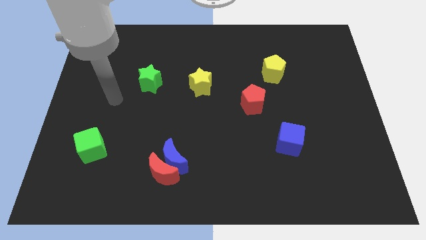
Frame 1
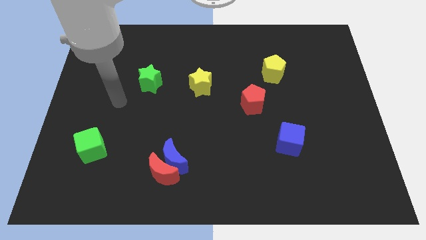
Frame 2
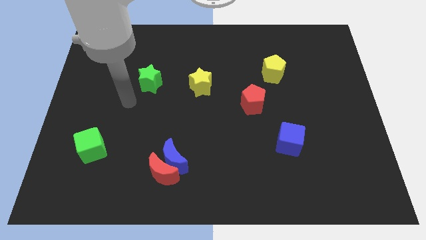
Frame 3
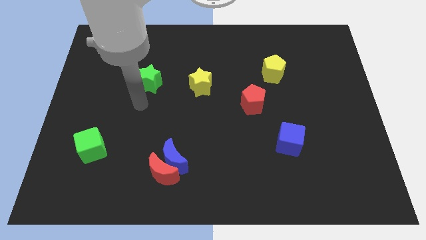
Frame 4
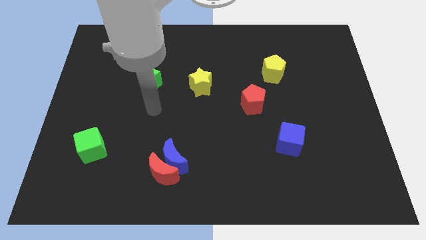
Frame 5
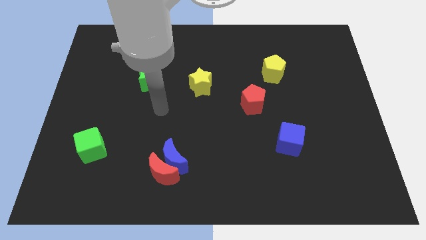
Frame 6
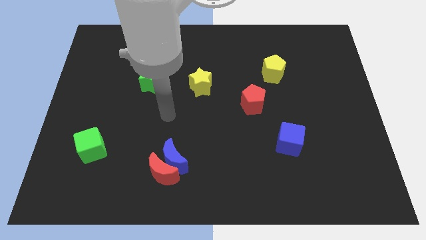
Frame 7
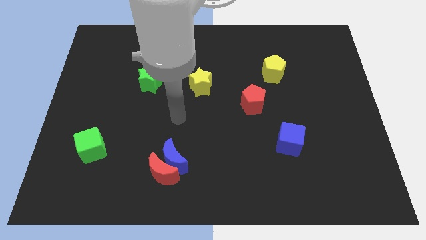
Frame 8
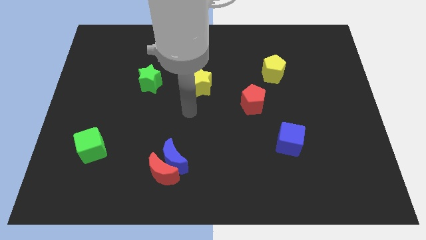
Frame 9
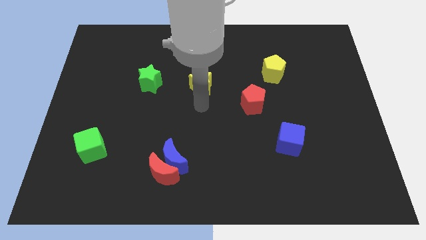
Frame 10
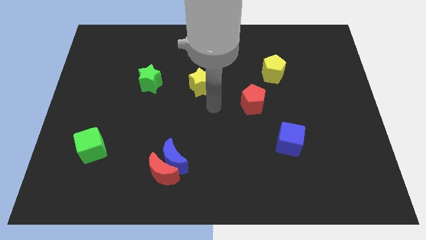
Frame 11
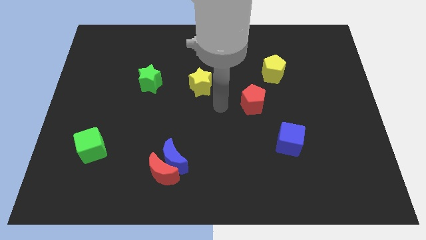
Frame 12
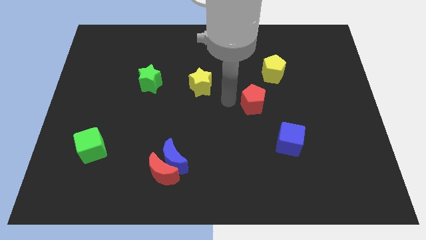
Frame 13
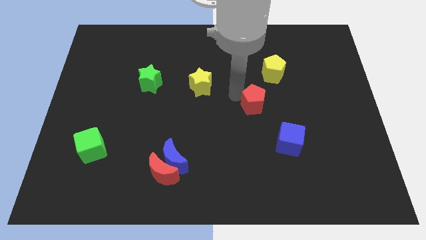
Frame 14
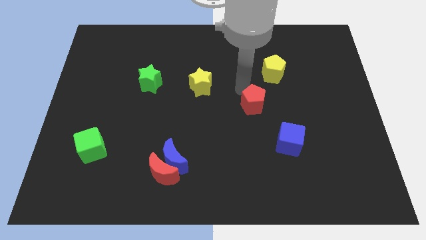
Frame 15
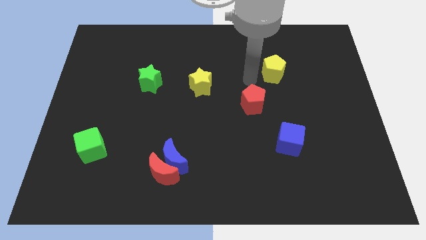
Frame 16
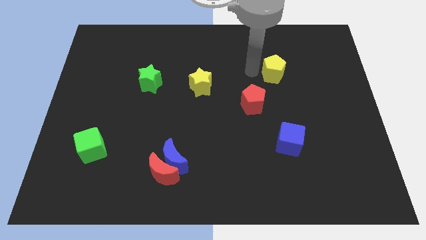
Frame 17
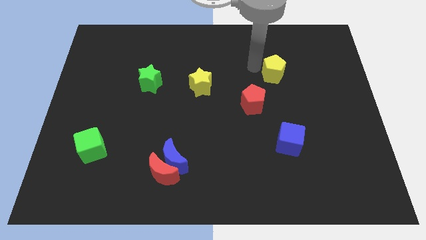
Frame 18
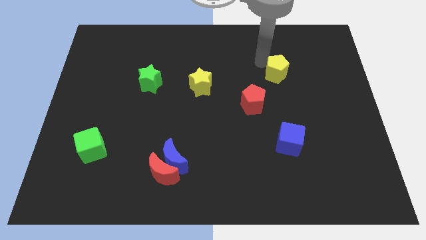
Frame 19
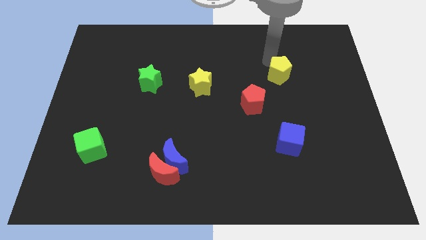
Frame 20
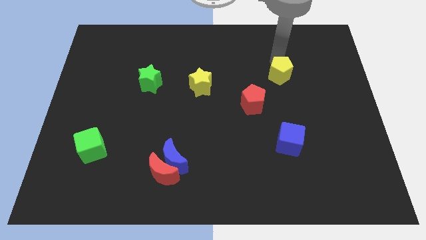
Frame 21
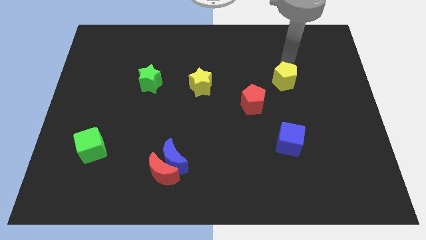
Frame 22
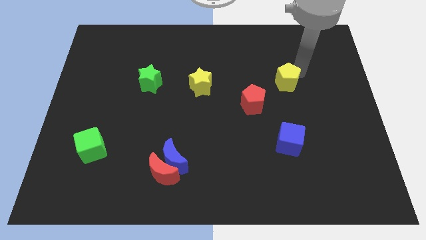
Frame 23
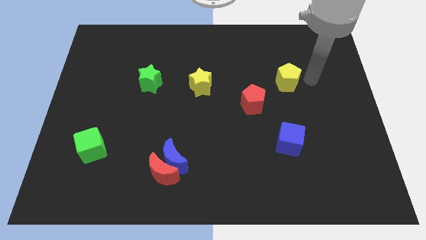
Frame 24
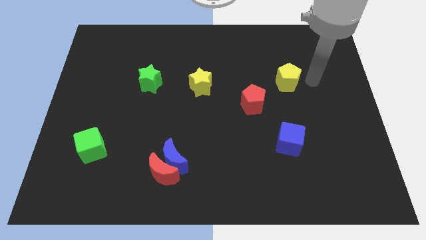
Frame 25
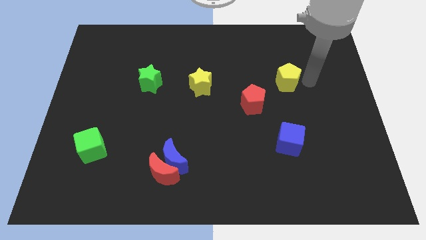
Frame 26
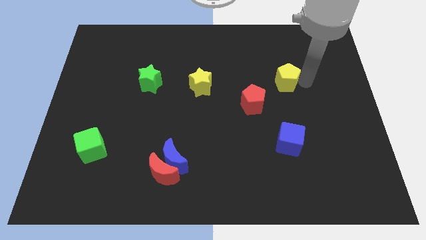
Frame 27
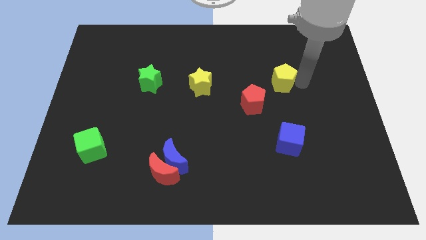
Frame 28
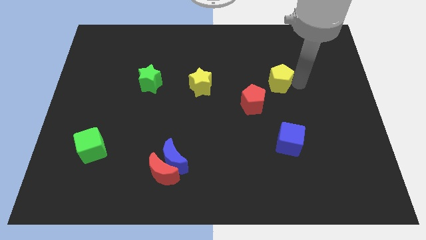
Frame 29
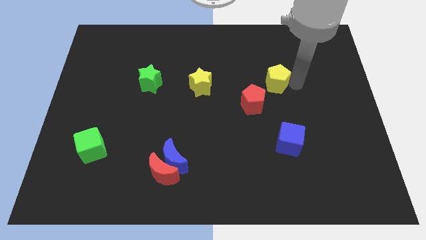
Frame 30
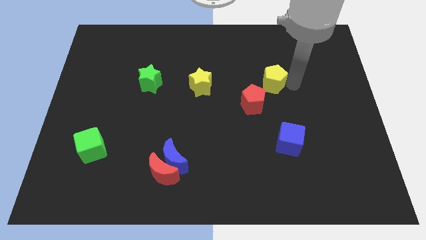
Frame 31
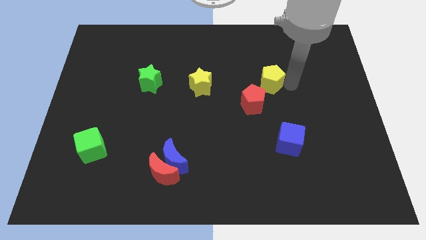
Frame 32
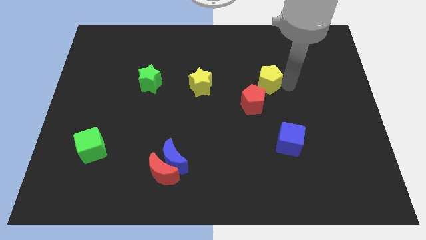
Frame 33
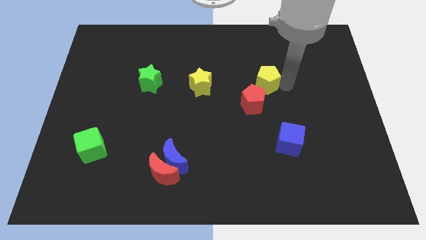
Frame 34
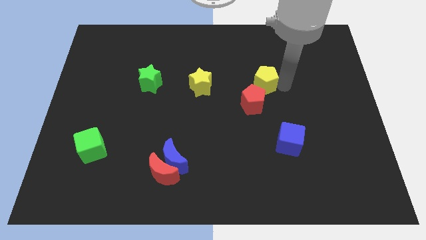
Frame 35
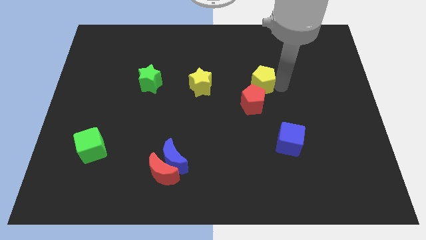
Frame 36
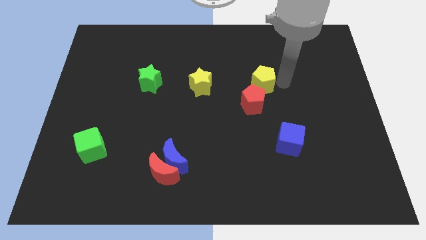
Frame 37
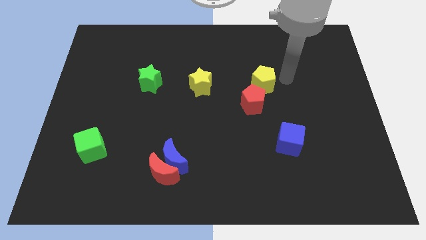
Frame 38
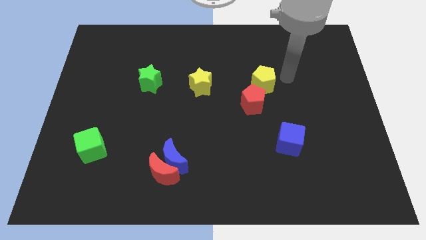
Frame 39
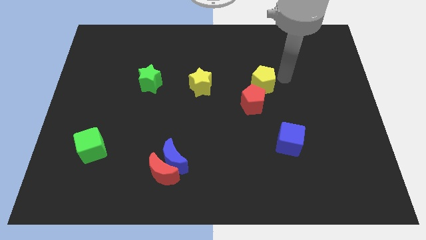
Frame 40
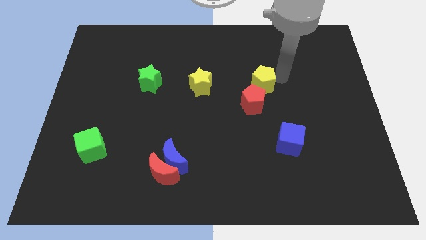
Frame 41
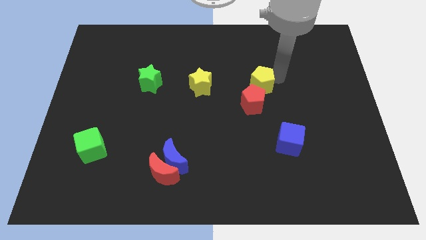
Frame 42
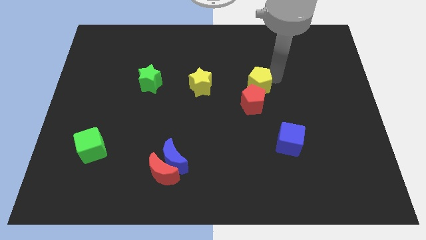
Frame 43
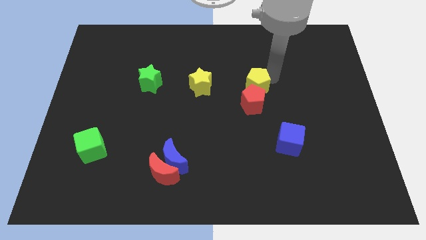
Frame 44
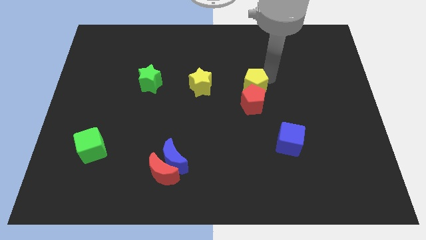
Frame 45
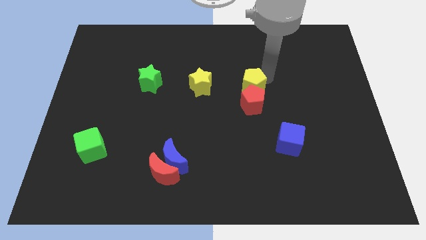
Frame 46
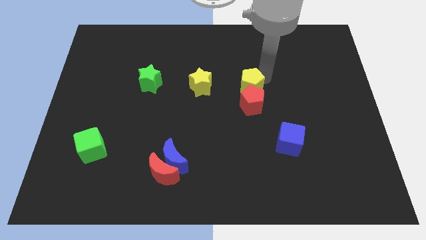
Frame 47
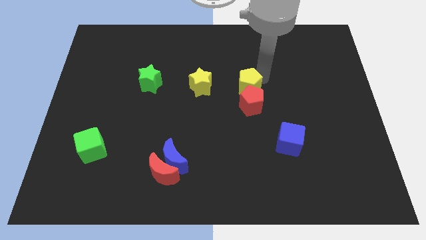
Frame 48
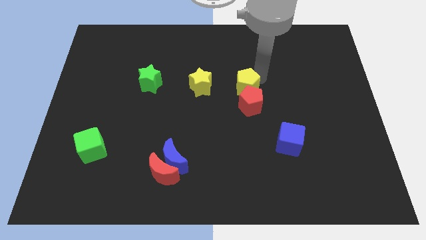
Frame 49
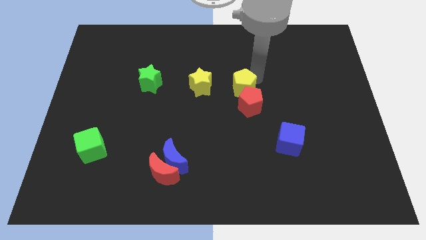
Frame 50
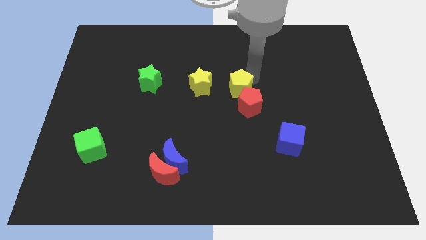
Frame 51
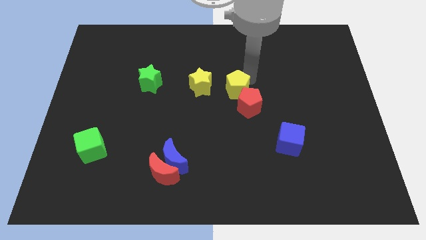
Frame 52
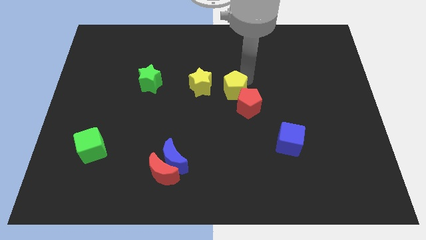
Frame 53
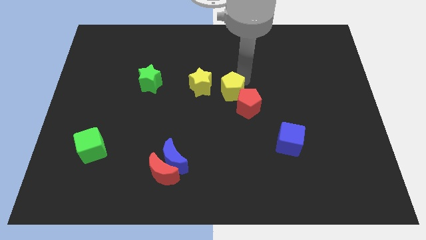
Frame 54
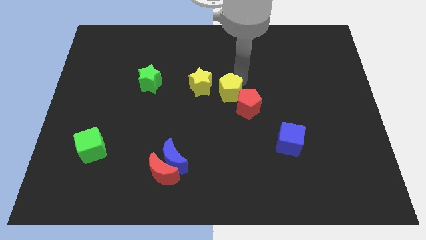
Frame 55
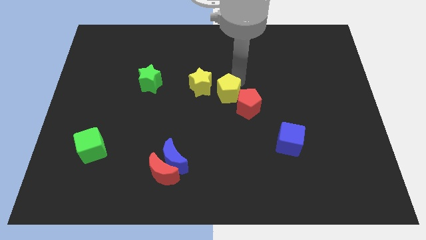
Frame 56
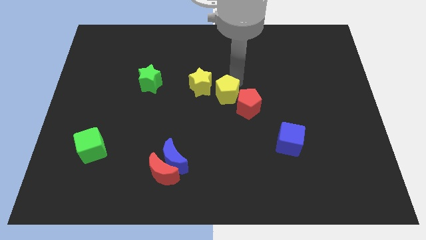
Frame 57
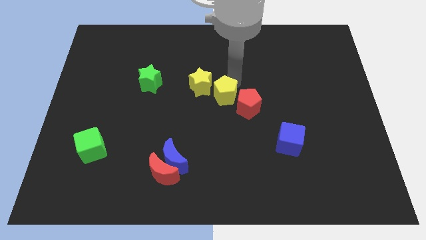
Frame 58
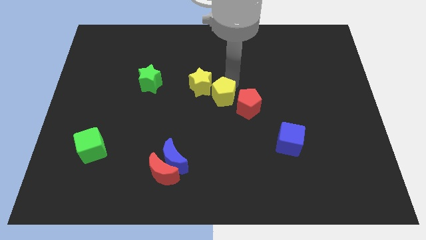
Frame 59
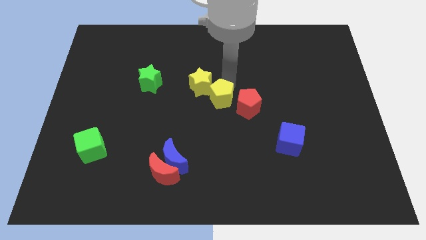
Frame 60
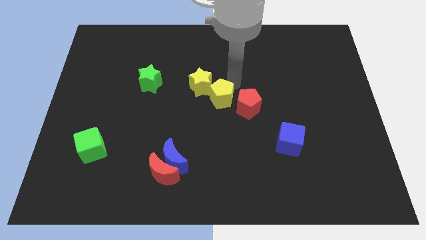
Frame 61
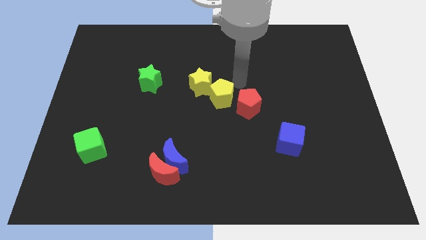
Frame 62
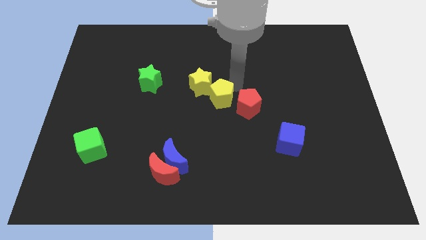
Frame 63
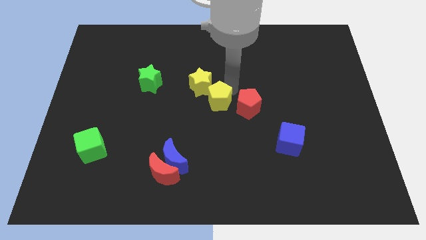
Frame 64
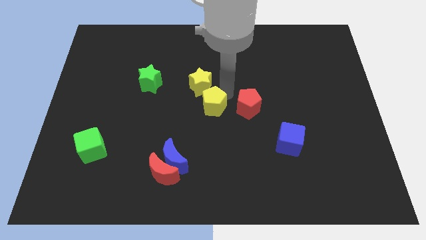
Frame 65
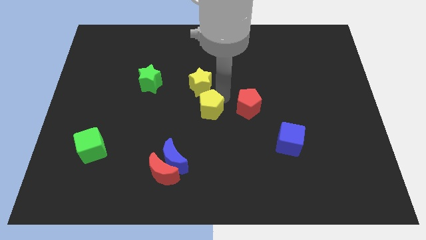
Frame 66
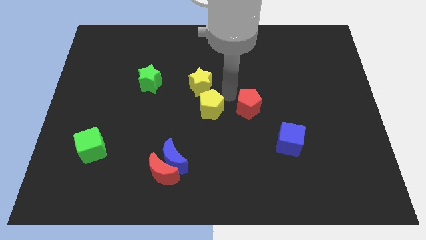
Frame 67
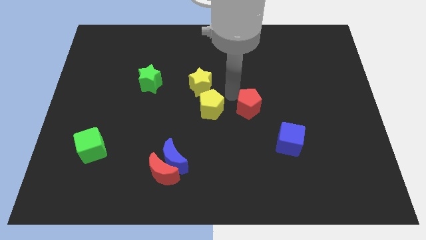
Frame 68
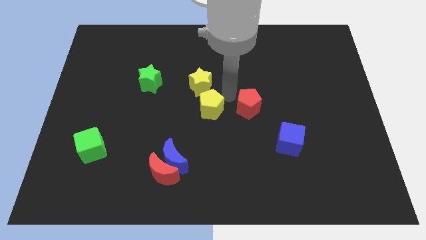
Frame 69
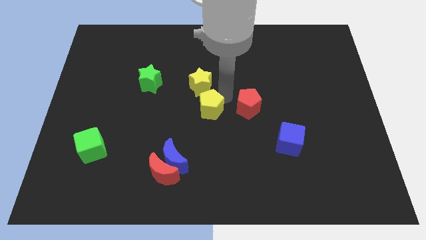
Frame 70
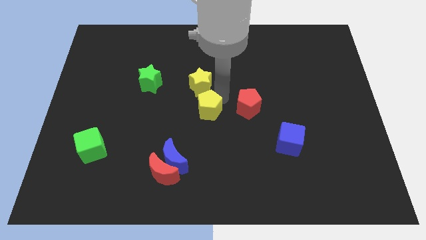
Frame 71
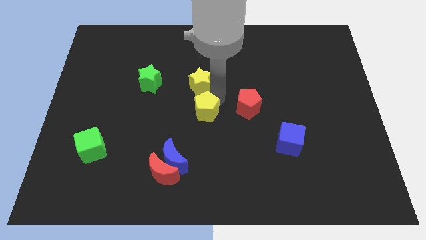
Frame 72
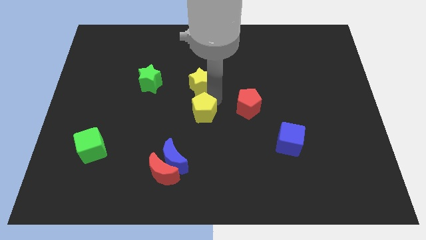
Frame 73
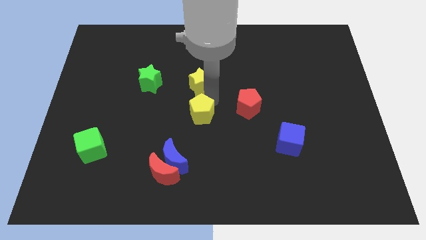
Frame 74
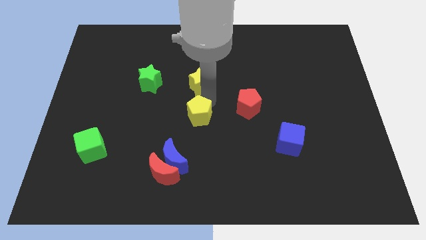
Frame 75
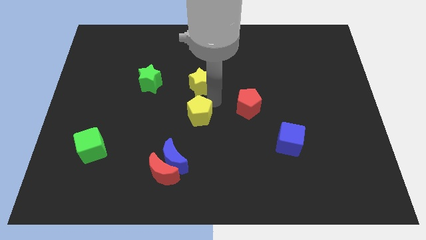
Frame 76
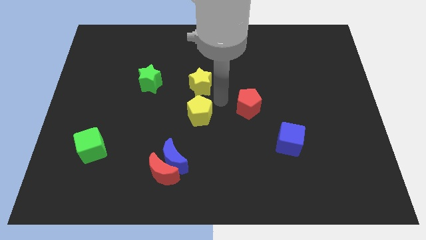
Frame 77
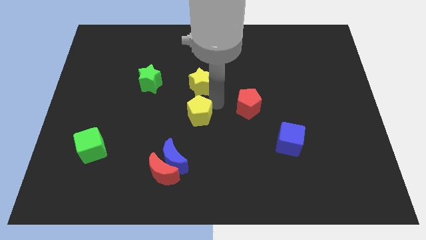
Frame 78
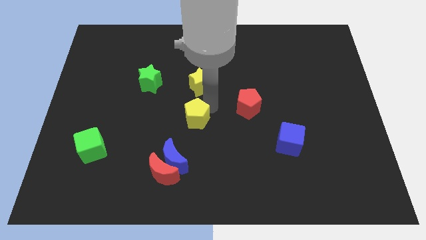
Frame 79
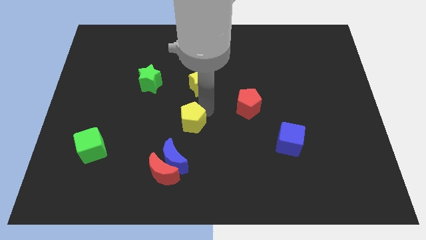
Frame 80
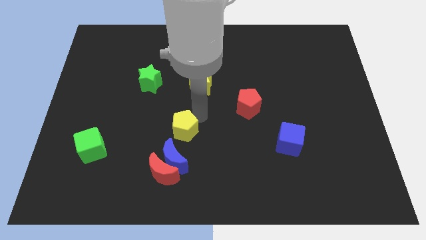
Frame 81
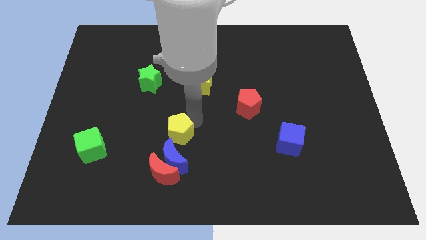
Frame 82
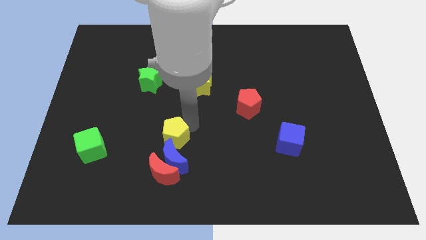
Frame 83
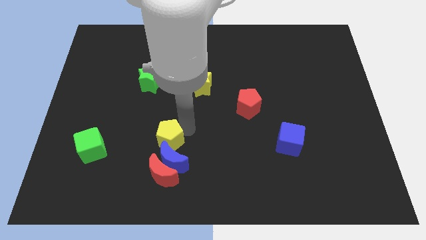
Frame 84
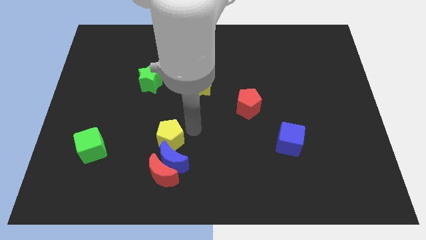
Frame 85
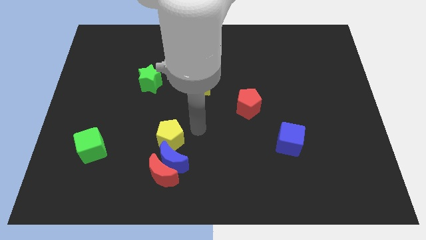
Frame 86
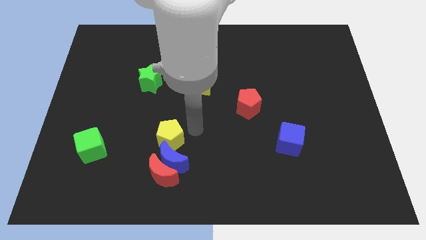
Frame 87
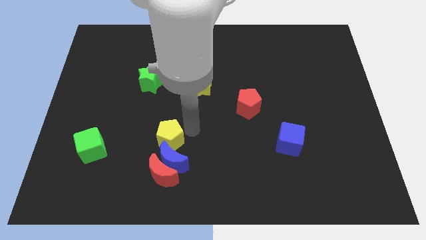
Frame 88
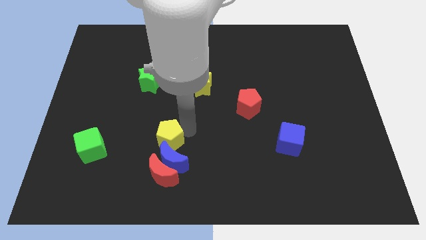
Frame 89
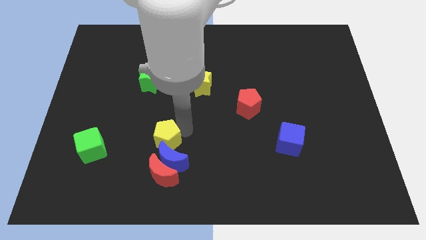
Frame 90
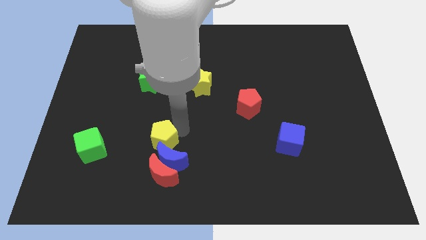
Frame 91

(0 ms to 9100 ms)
move the yellow pentagon just right of the green cube
